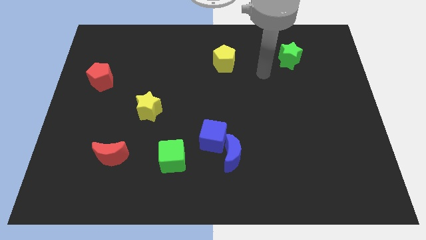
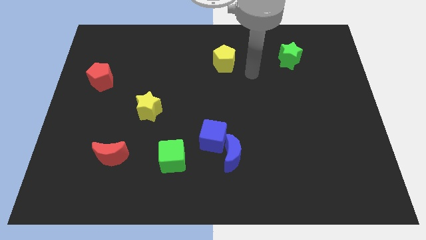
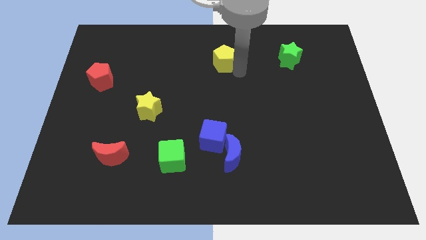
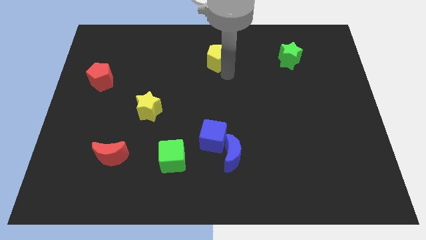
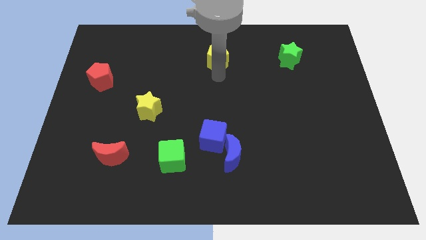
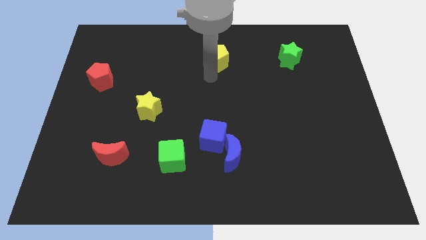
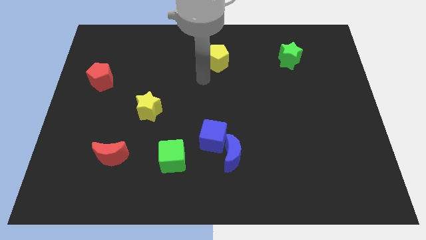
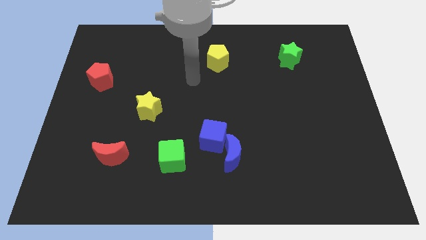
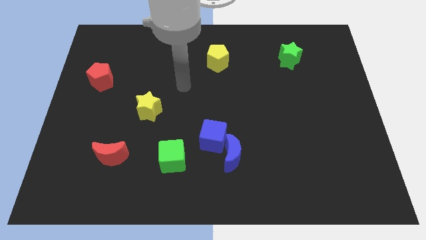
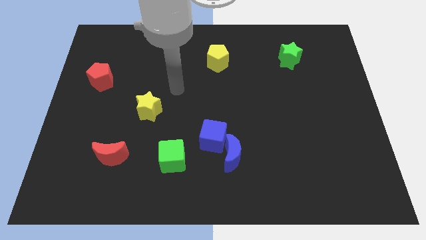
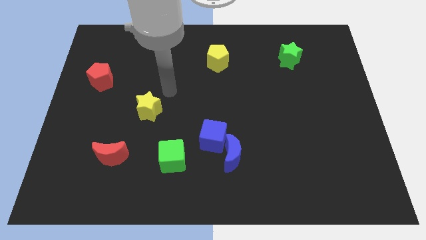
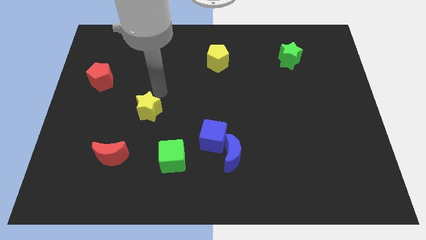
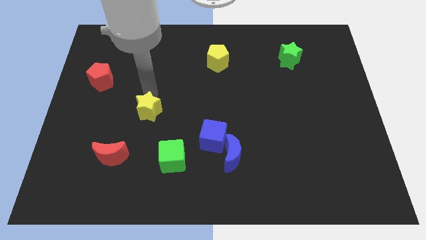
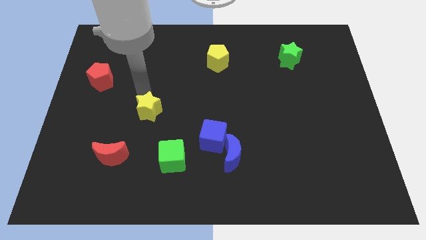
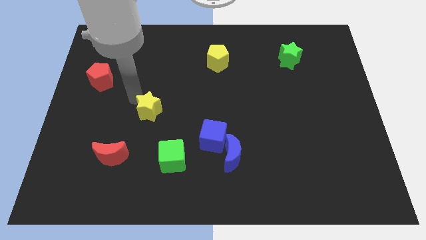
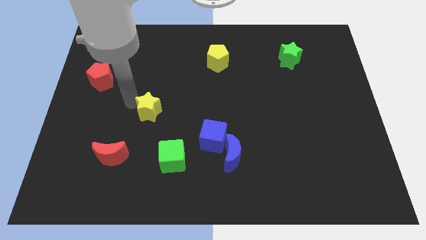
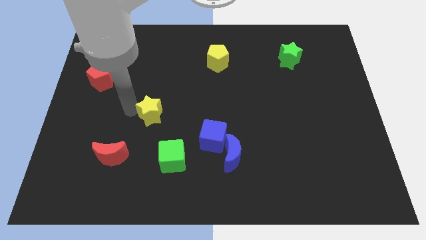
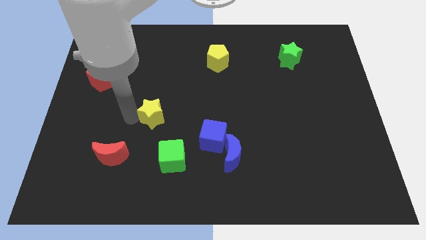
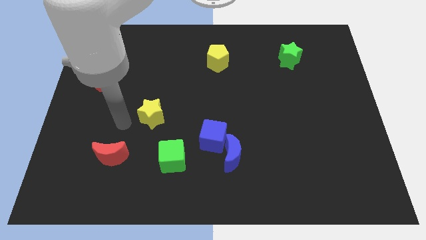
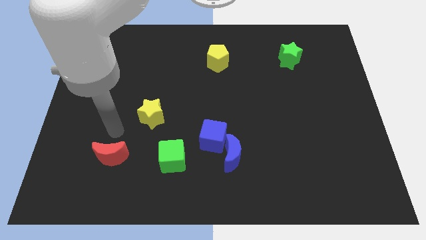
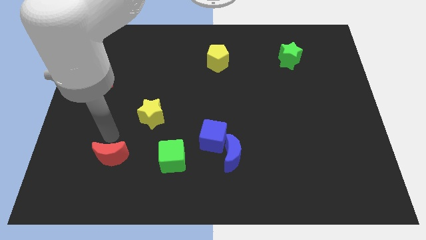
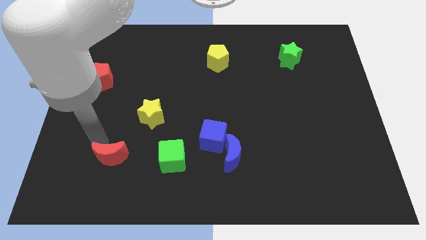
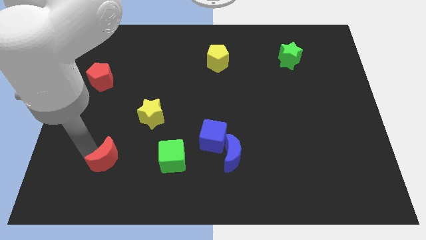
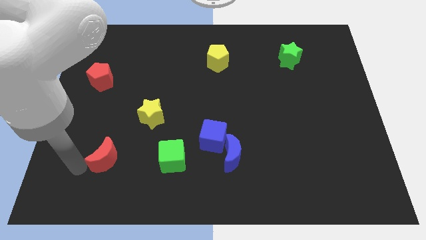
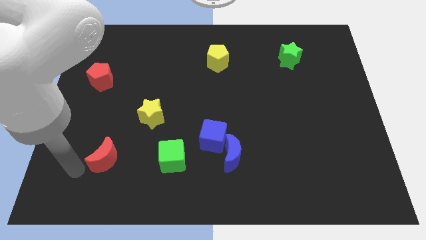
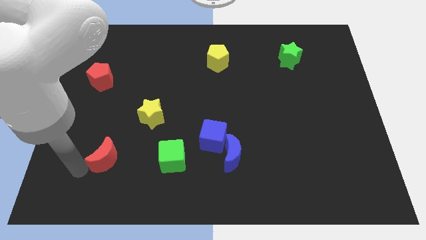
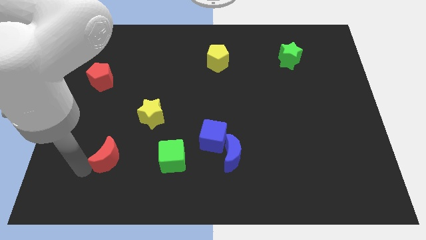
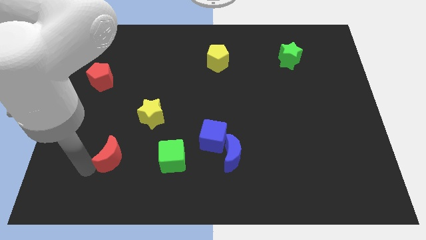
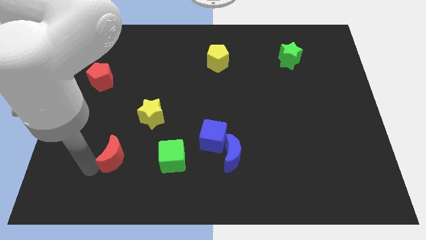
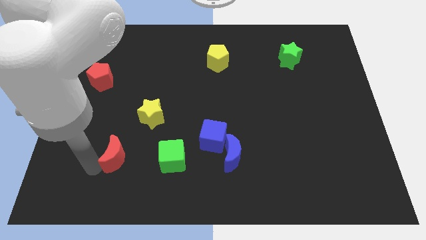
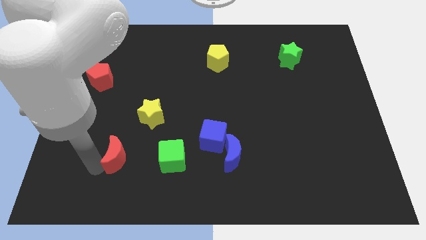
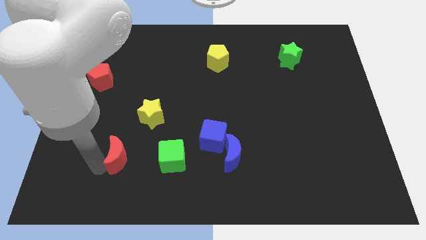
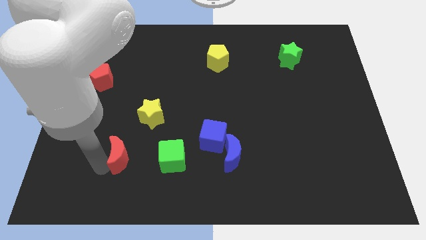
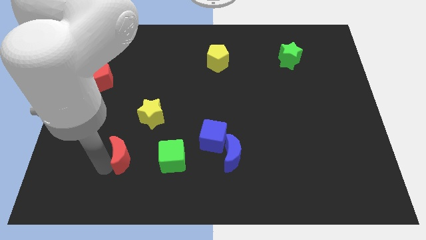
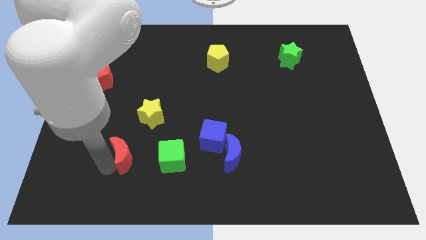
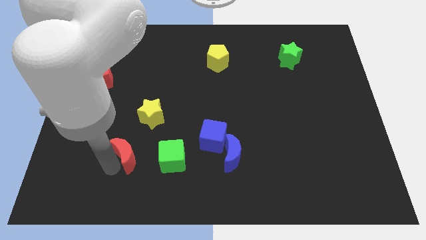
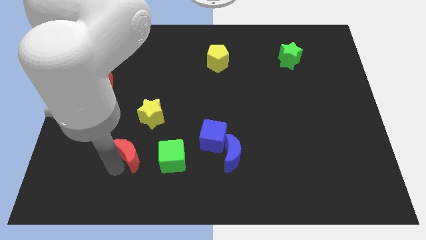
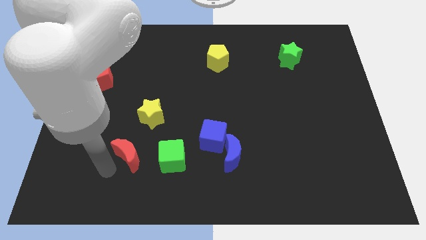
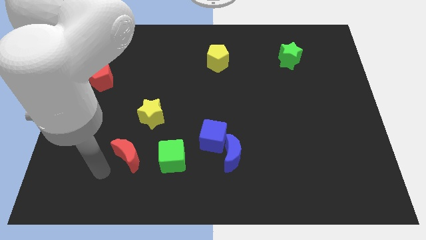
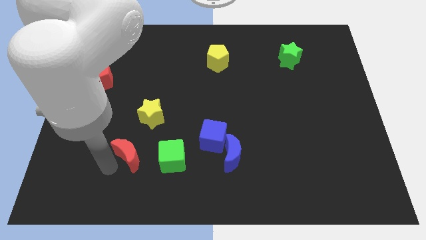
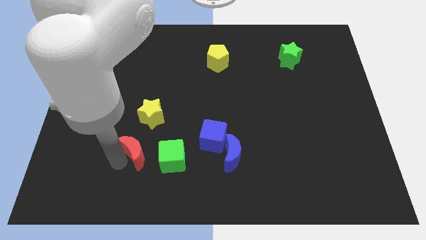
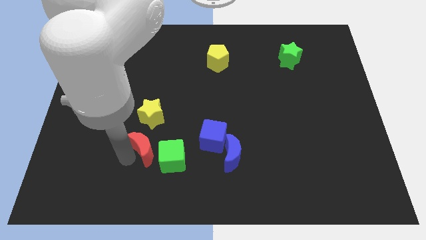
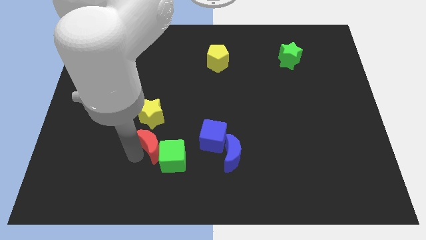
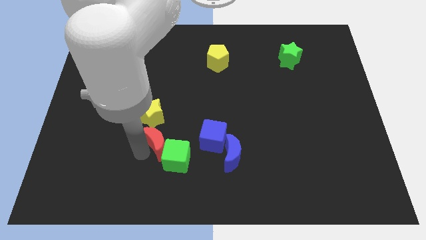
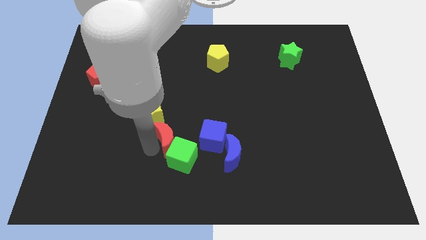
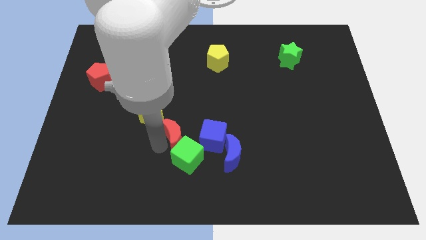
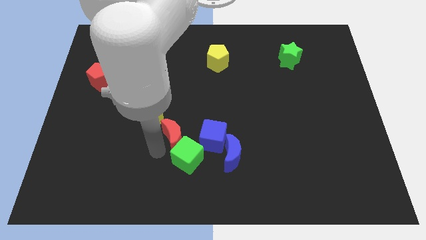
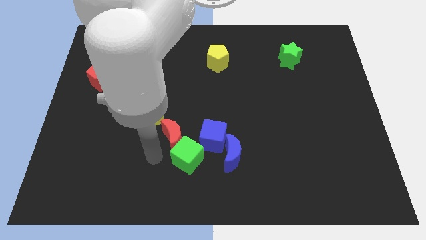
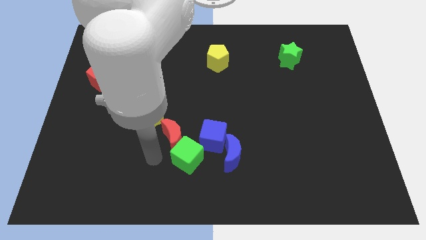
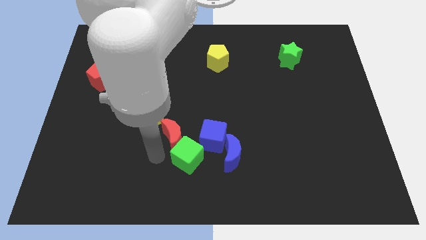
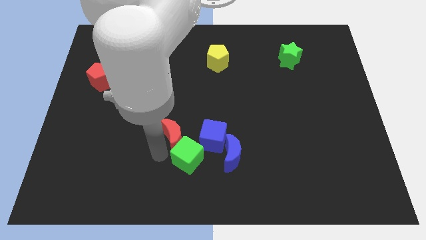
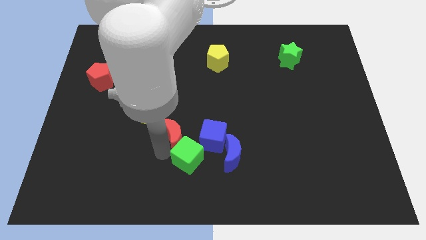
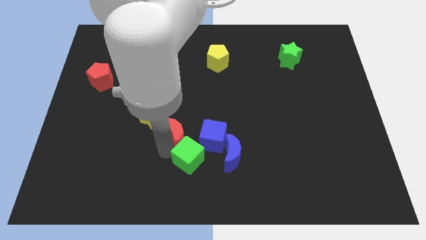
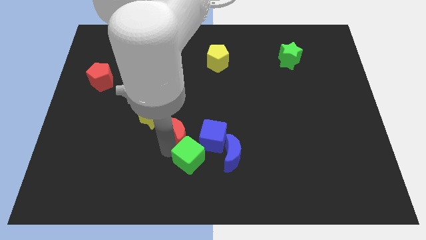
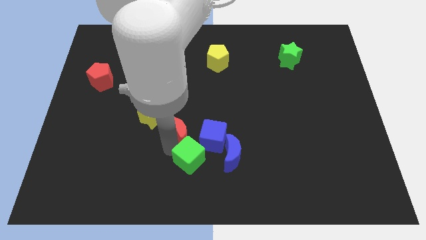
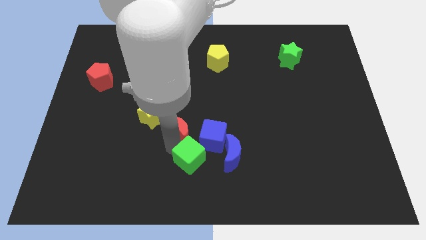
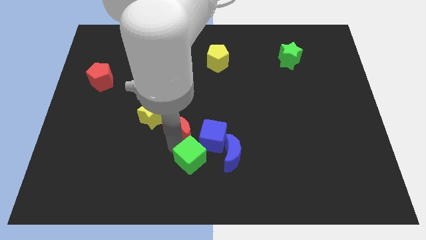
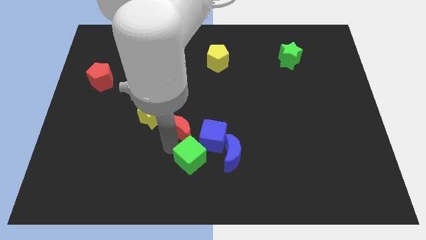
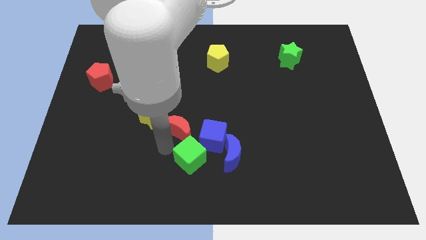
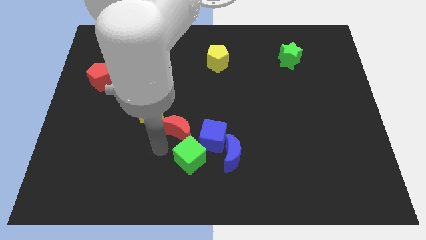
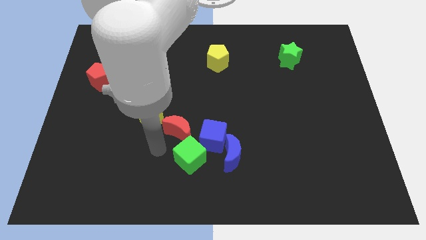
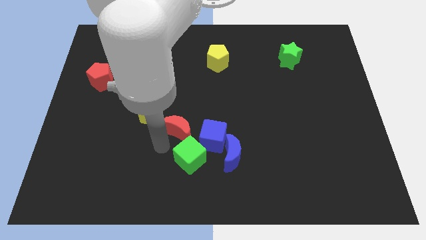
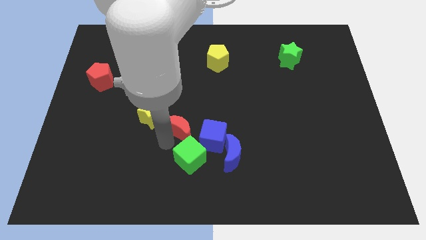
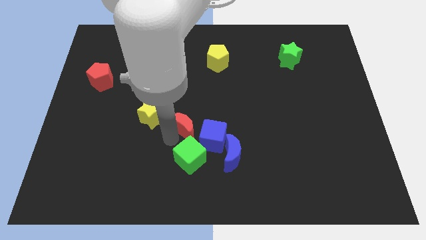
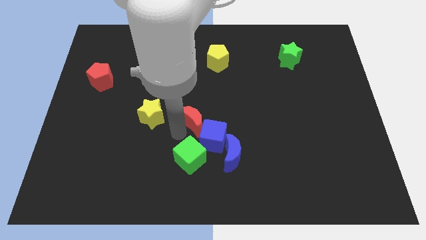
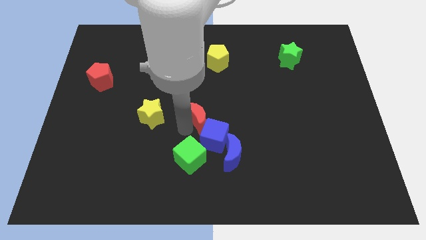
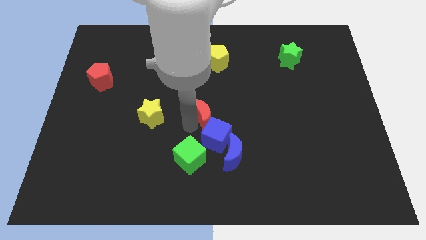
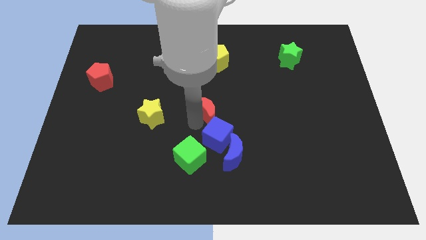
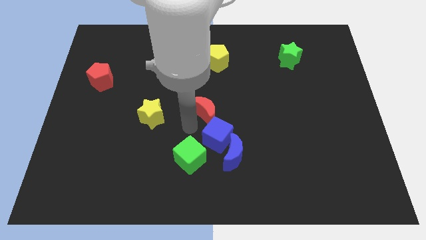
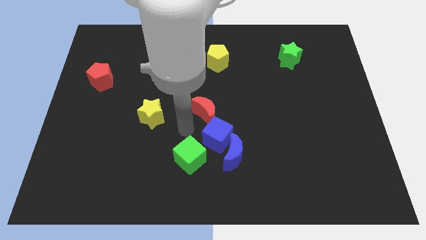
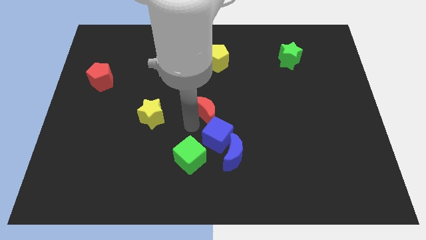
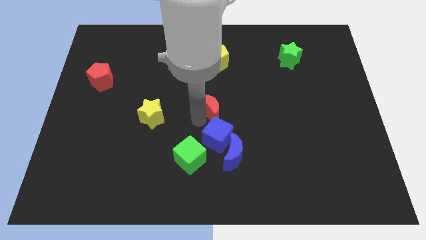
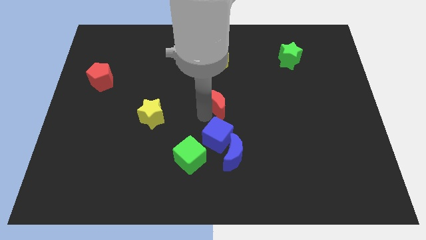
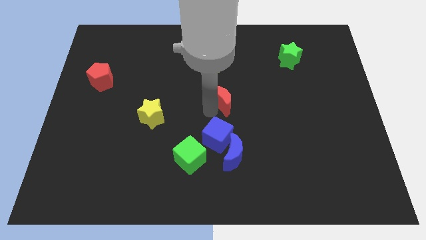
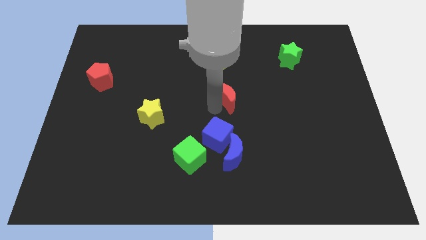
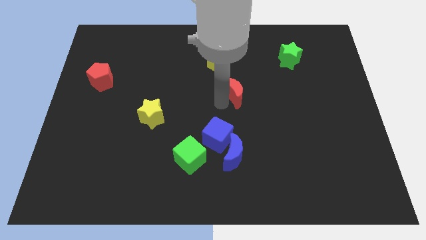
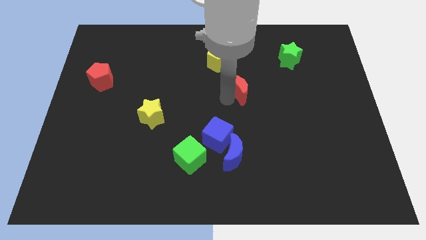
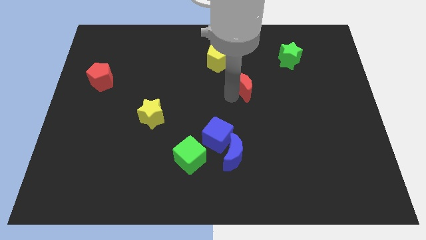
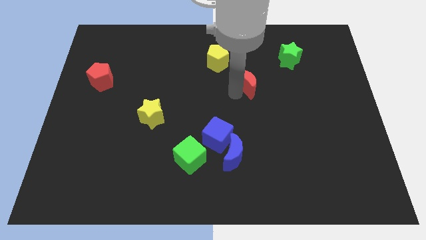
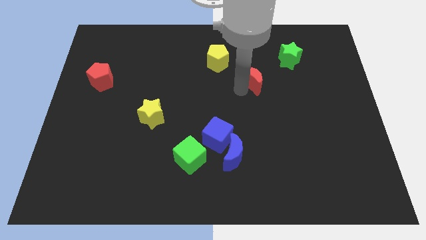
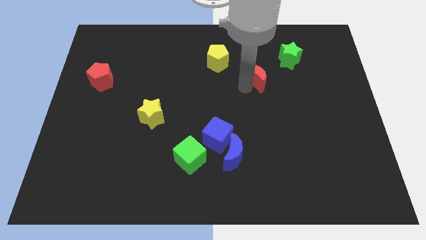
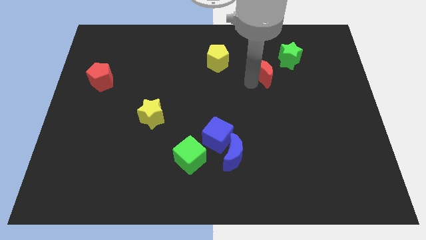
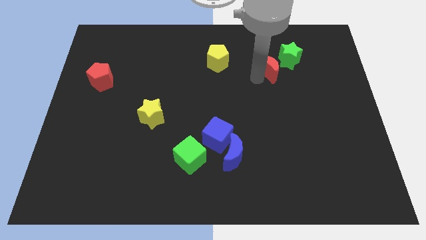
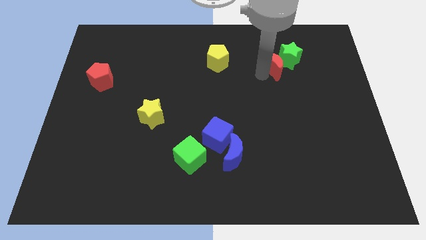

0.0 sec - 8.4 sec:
slide the red moon close to the green star
